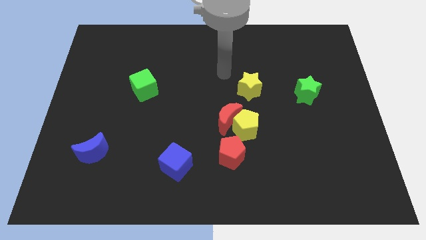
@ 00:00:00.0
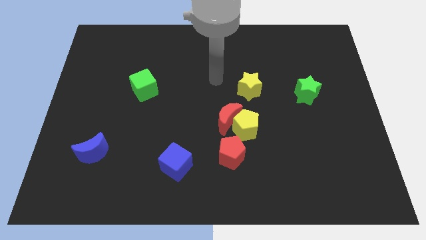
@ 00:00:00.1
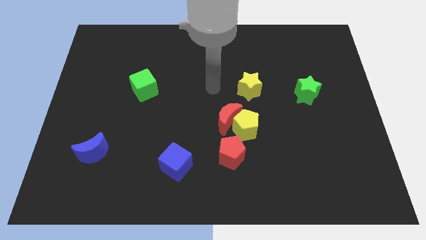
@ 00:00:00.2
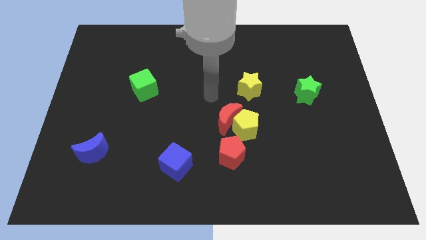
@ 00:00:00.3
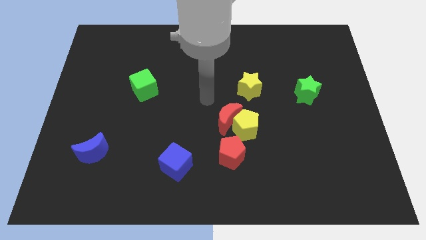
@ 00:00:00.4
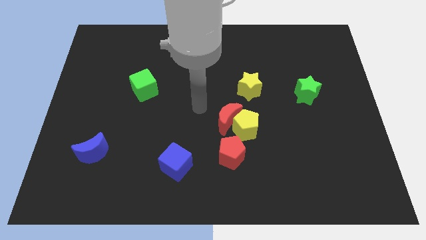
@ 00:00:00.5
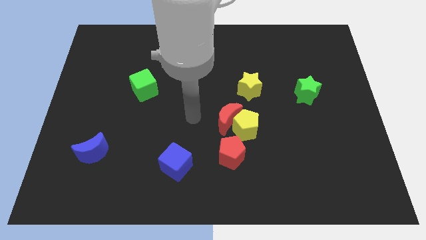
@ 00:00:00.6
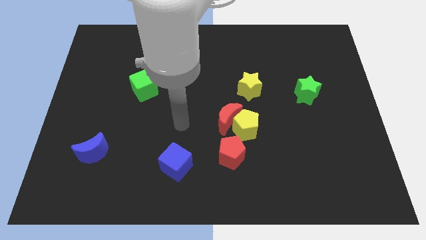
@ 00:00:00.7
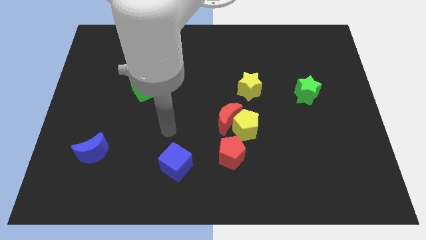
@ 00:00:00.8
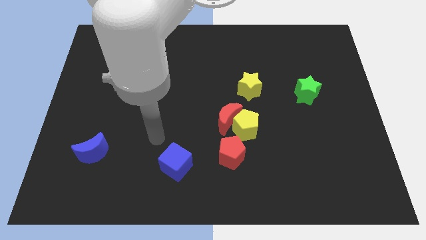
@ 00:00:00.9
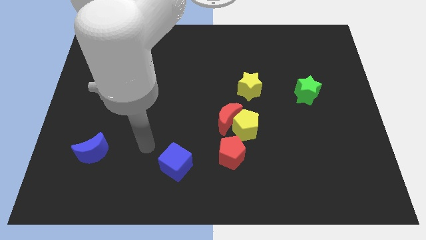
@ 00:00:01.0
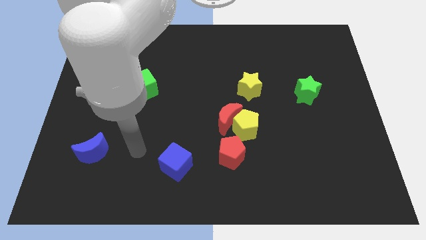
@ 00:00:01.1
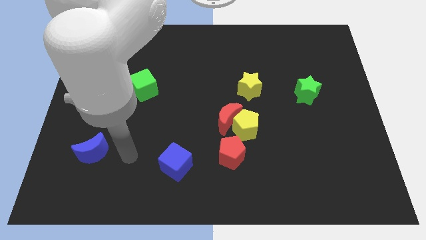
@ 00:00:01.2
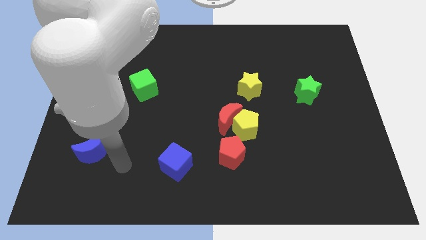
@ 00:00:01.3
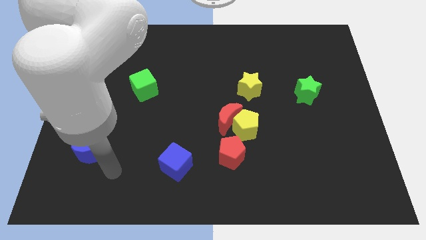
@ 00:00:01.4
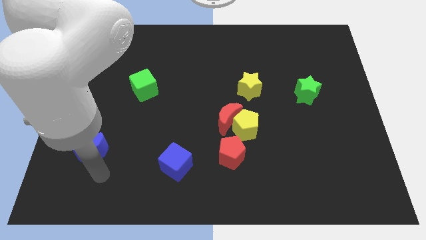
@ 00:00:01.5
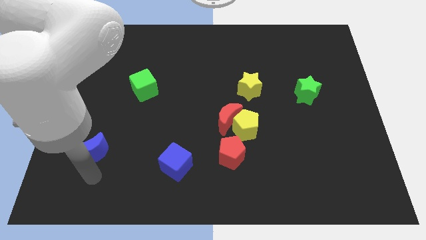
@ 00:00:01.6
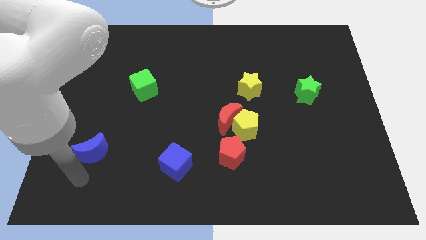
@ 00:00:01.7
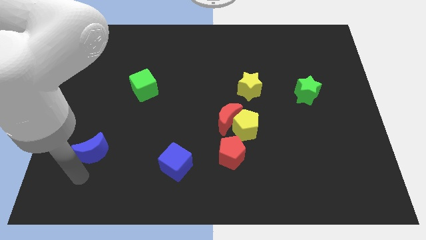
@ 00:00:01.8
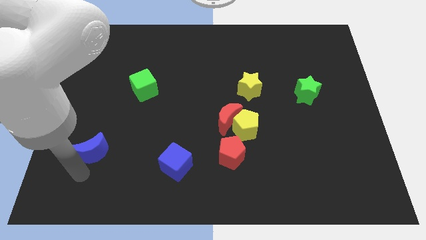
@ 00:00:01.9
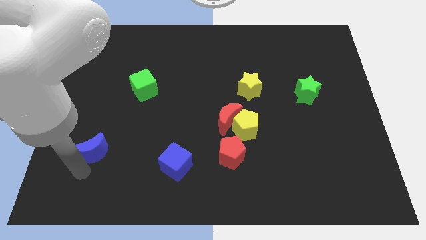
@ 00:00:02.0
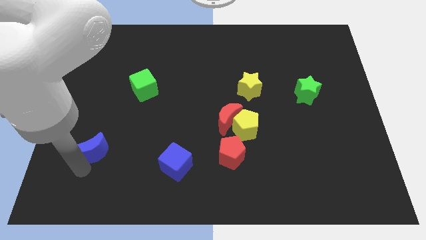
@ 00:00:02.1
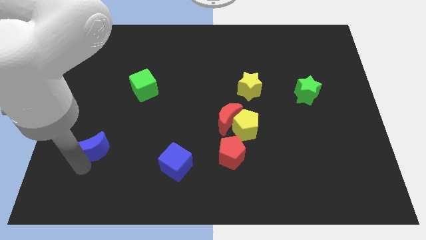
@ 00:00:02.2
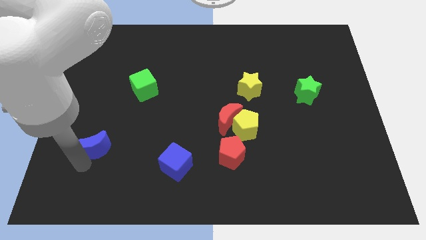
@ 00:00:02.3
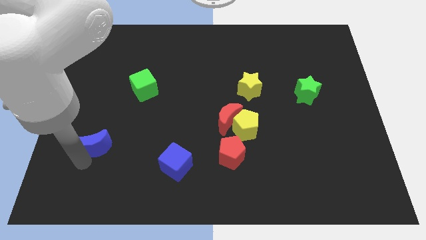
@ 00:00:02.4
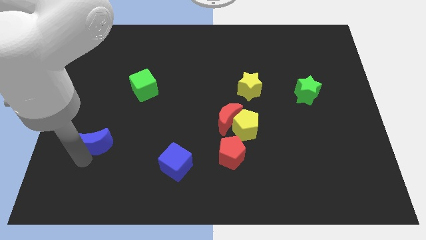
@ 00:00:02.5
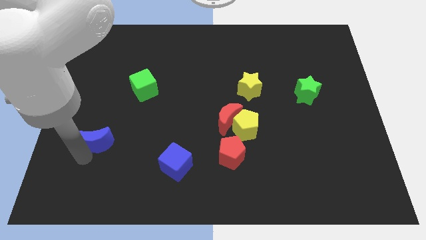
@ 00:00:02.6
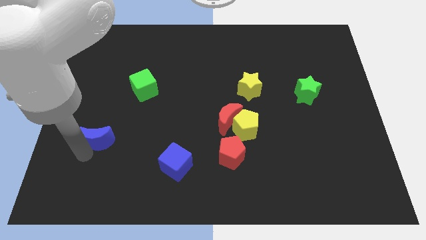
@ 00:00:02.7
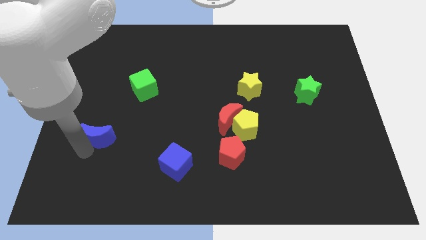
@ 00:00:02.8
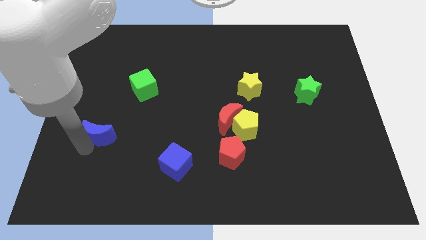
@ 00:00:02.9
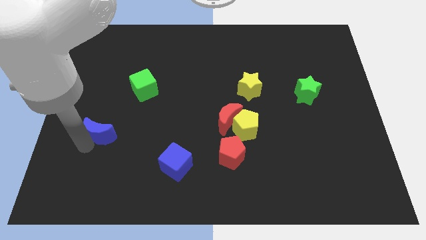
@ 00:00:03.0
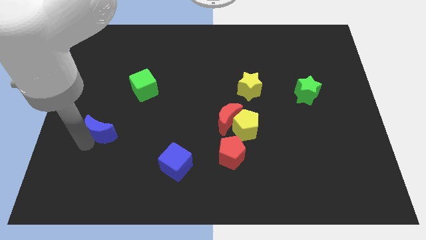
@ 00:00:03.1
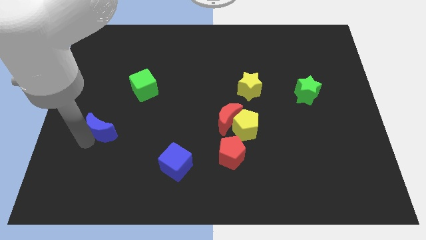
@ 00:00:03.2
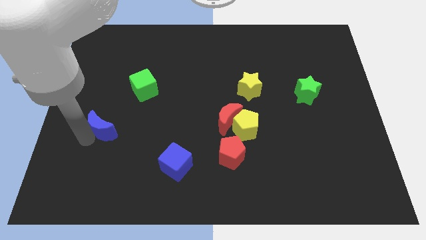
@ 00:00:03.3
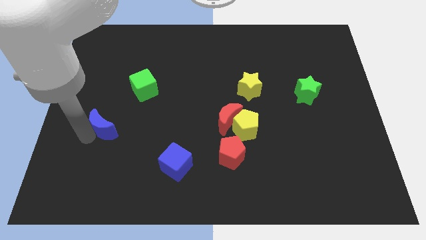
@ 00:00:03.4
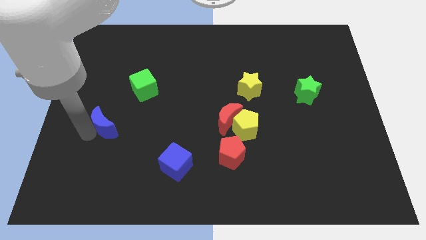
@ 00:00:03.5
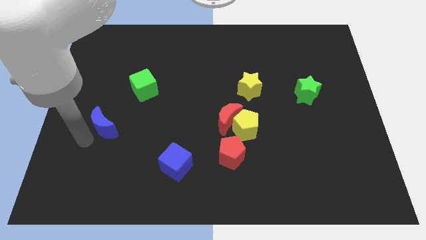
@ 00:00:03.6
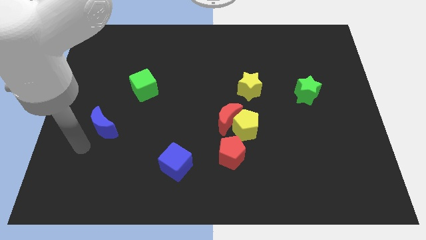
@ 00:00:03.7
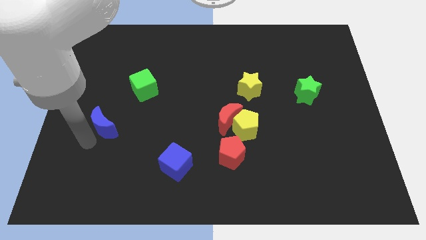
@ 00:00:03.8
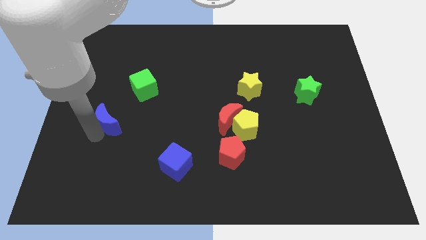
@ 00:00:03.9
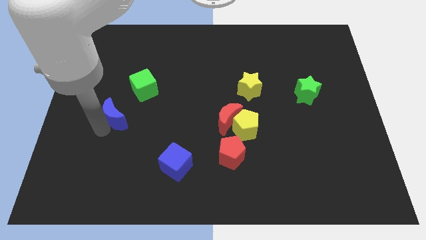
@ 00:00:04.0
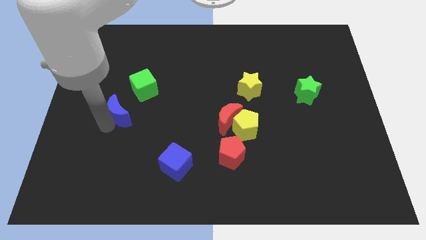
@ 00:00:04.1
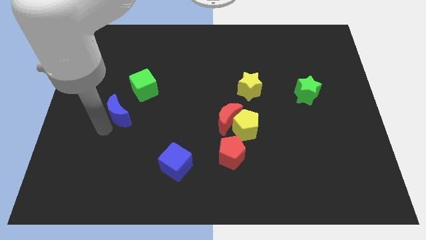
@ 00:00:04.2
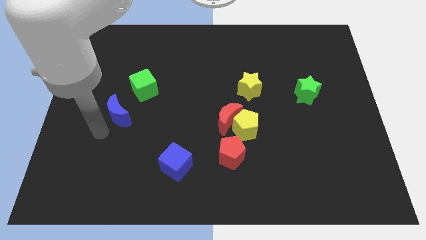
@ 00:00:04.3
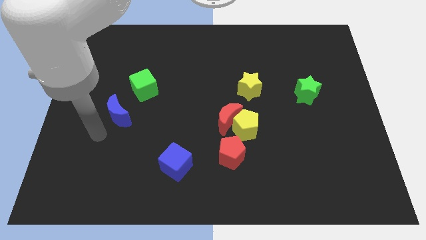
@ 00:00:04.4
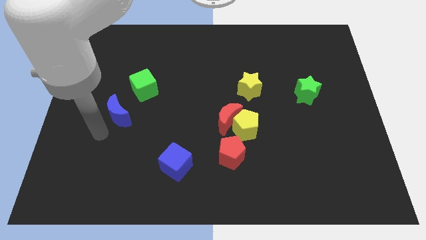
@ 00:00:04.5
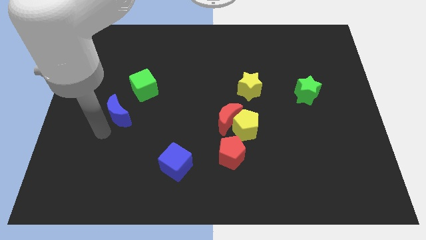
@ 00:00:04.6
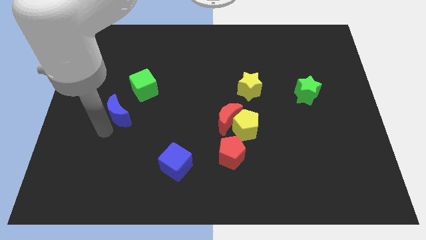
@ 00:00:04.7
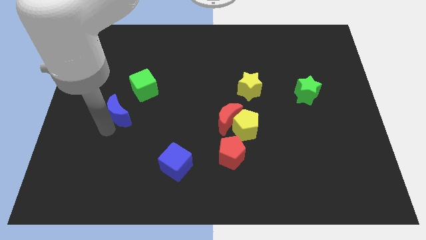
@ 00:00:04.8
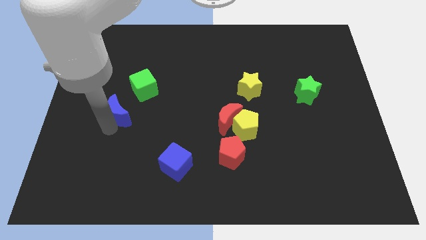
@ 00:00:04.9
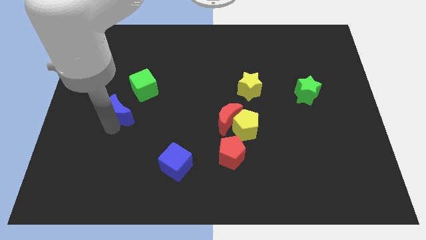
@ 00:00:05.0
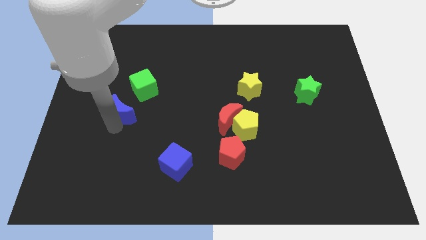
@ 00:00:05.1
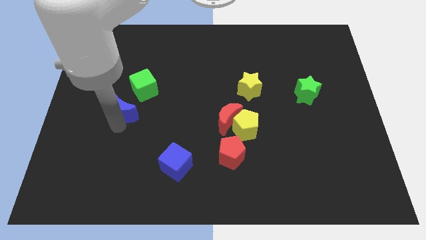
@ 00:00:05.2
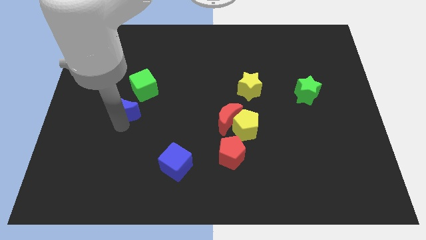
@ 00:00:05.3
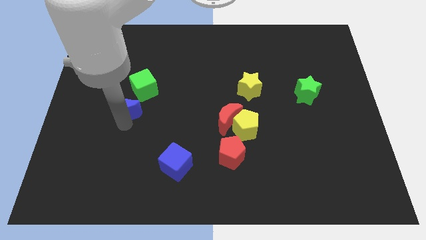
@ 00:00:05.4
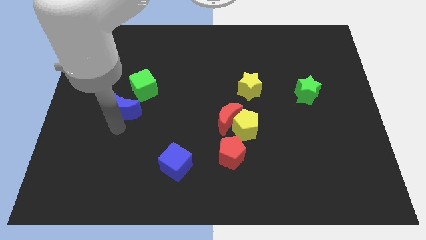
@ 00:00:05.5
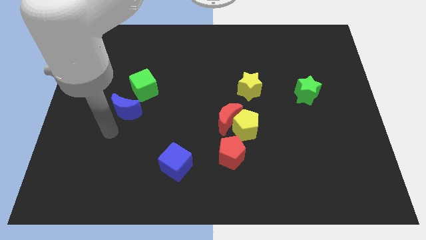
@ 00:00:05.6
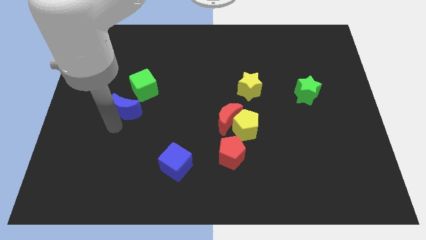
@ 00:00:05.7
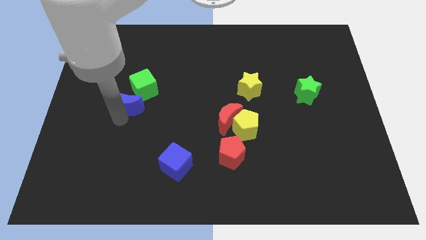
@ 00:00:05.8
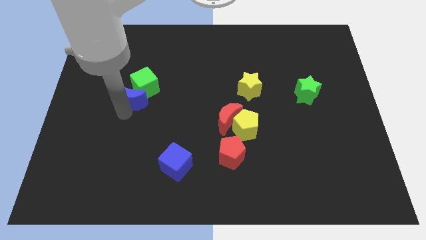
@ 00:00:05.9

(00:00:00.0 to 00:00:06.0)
slide the blue moon next to the green cube

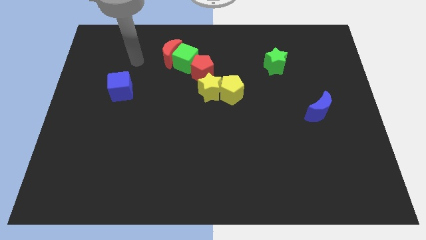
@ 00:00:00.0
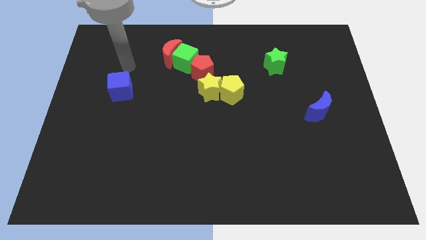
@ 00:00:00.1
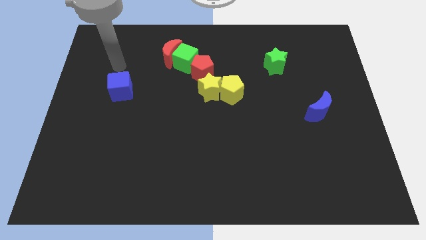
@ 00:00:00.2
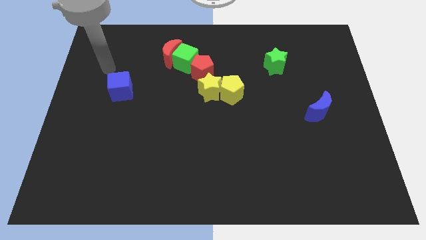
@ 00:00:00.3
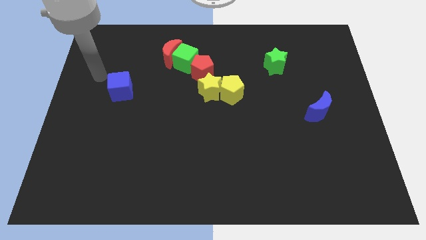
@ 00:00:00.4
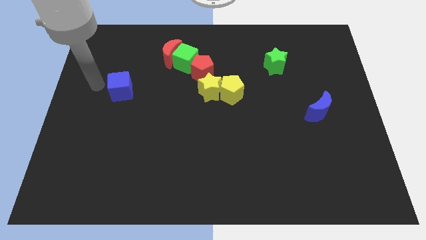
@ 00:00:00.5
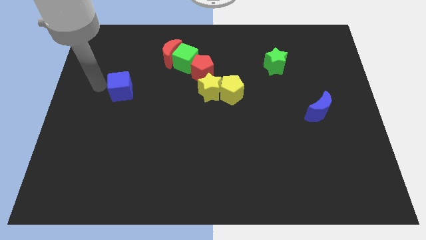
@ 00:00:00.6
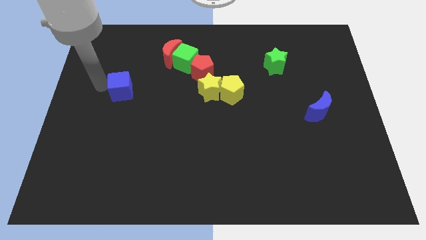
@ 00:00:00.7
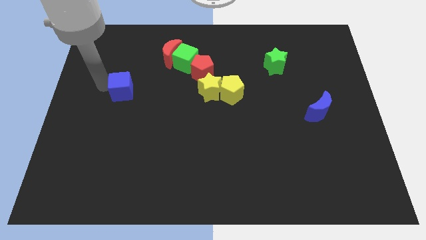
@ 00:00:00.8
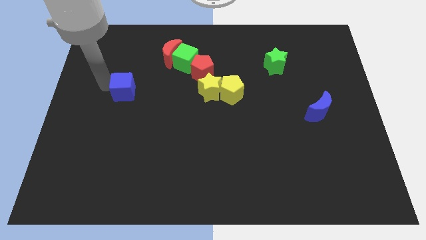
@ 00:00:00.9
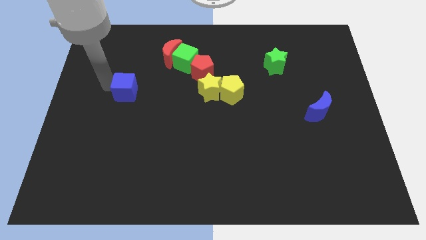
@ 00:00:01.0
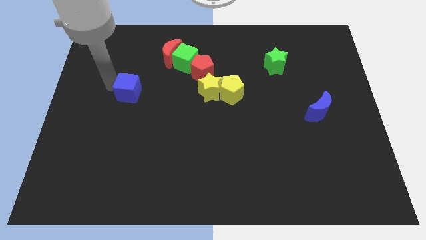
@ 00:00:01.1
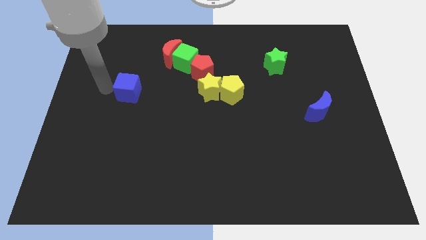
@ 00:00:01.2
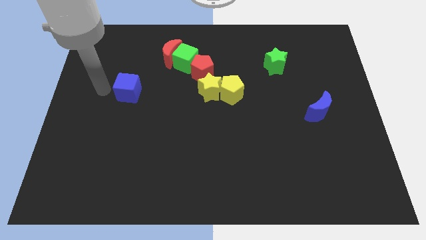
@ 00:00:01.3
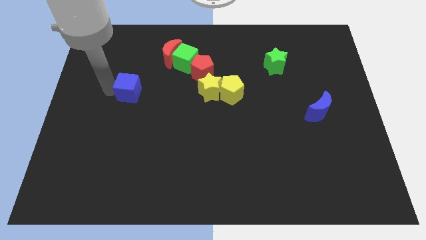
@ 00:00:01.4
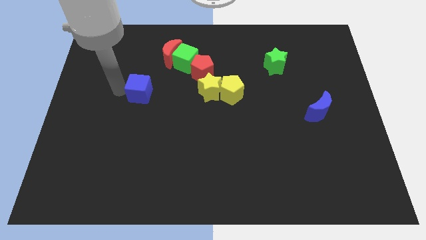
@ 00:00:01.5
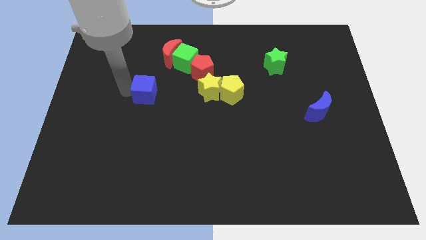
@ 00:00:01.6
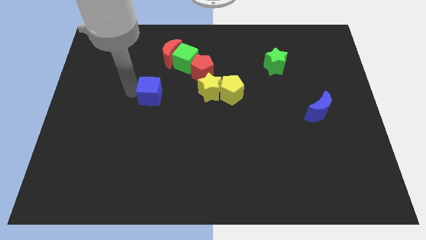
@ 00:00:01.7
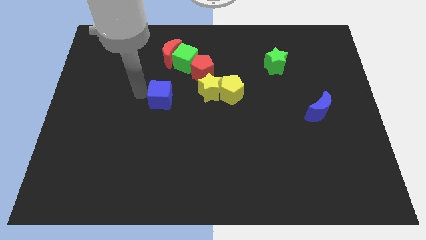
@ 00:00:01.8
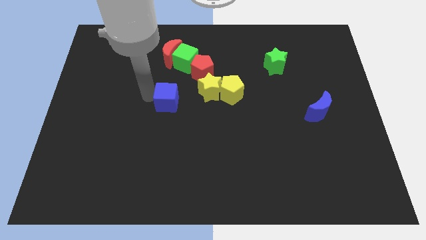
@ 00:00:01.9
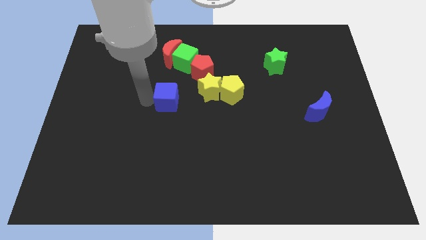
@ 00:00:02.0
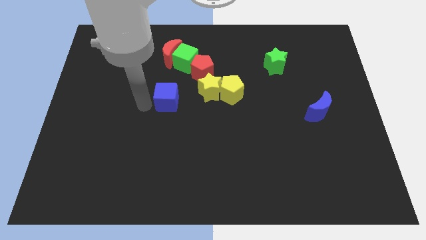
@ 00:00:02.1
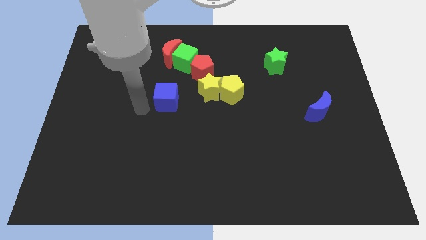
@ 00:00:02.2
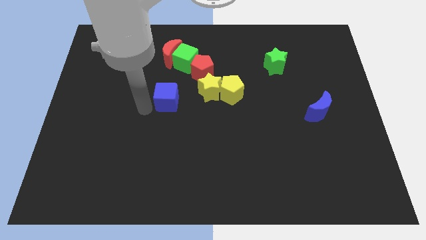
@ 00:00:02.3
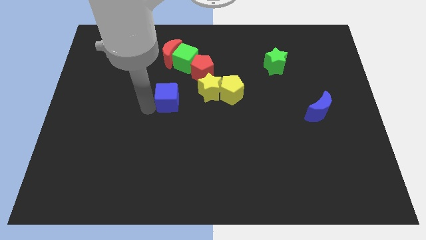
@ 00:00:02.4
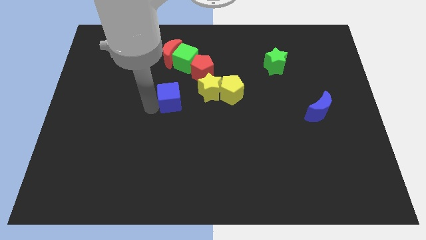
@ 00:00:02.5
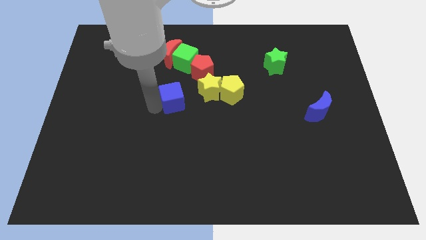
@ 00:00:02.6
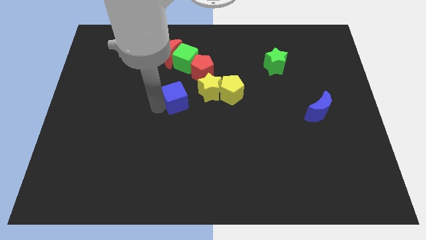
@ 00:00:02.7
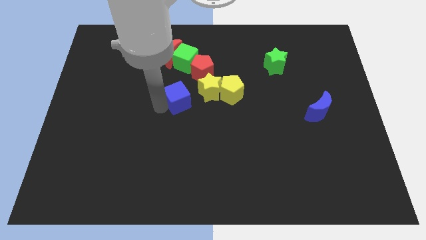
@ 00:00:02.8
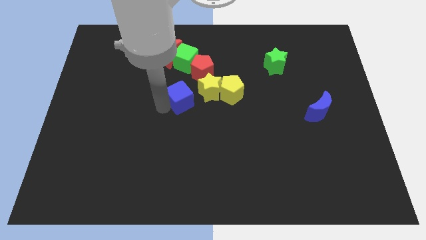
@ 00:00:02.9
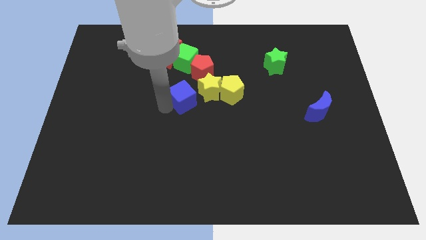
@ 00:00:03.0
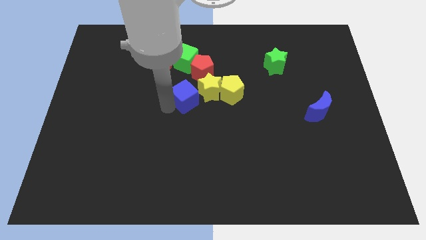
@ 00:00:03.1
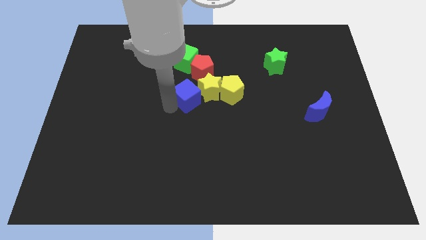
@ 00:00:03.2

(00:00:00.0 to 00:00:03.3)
push the blue cube close to the yellow star
